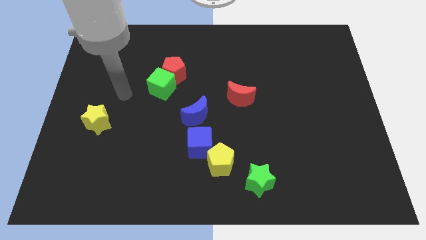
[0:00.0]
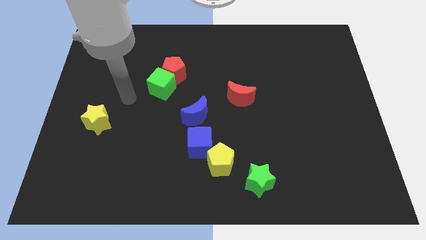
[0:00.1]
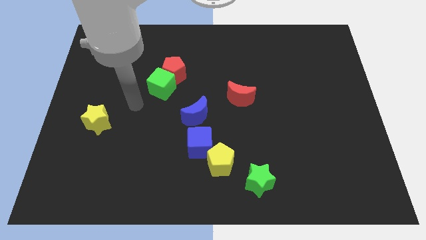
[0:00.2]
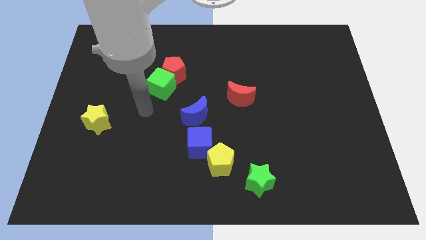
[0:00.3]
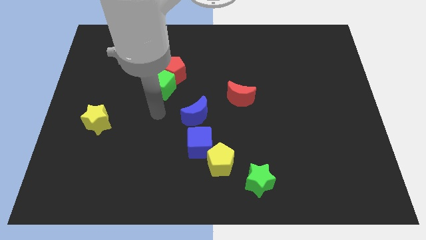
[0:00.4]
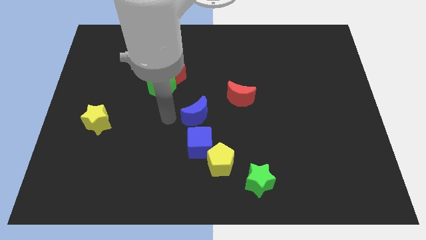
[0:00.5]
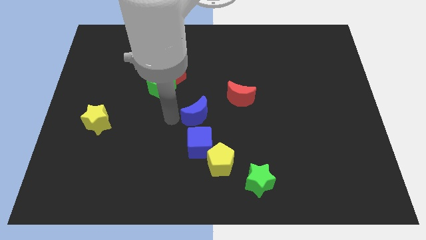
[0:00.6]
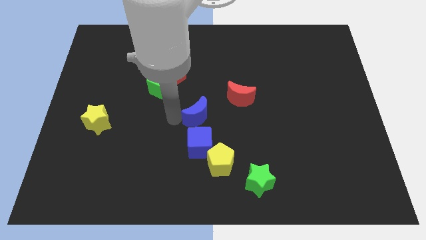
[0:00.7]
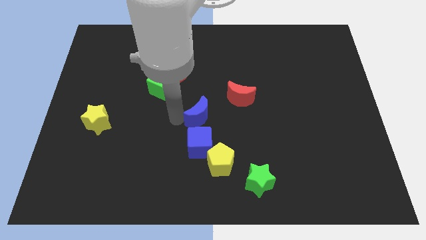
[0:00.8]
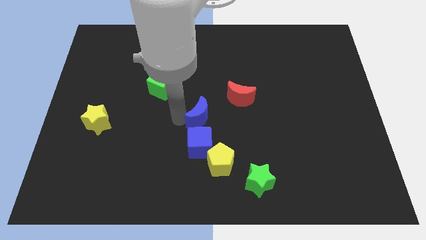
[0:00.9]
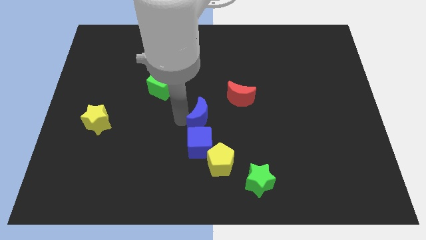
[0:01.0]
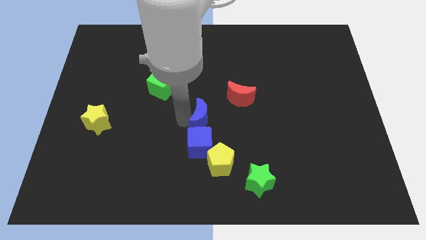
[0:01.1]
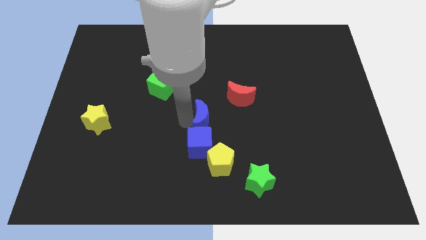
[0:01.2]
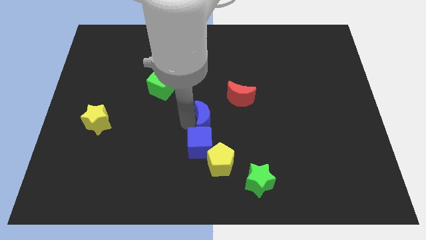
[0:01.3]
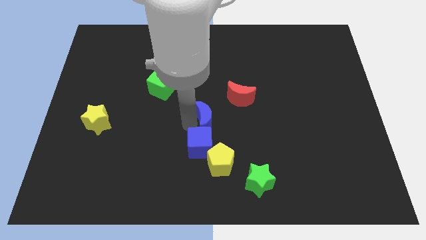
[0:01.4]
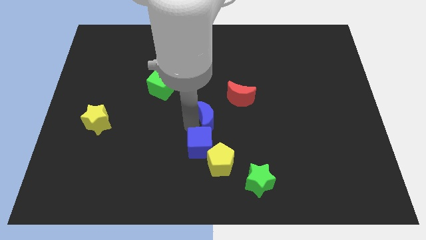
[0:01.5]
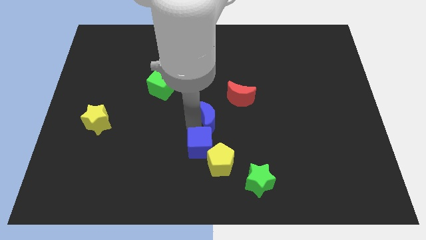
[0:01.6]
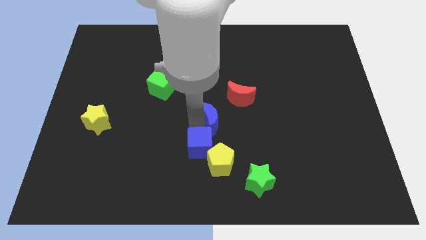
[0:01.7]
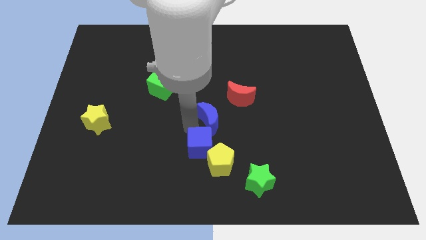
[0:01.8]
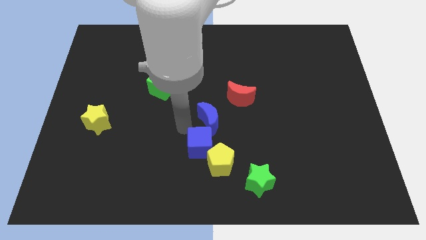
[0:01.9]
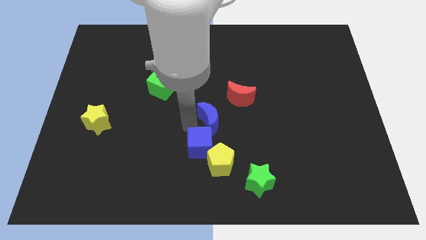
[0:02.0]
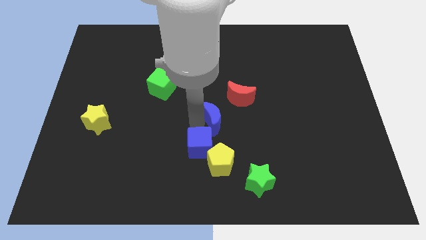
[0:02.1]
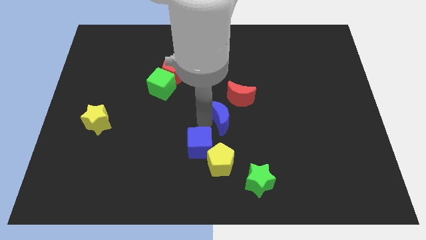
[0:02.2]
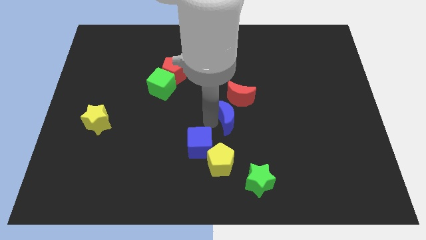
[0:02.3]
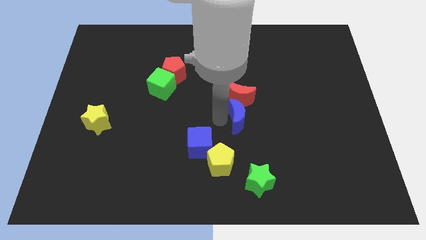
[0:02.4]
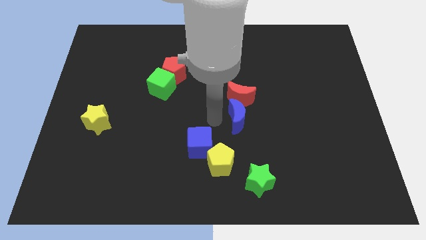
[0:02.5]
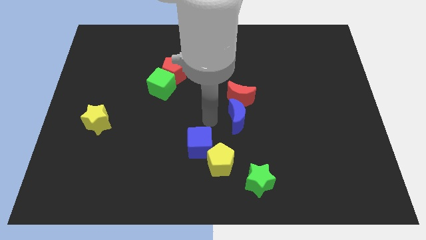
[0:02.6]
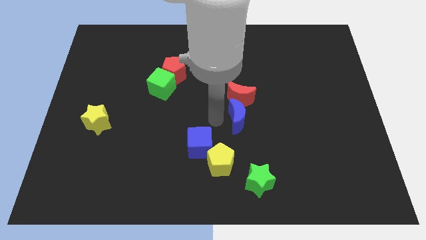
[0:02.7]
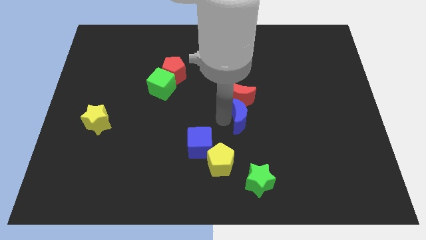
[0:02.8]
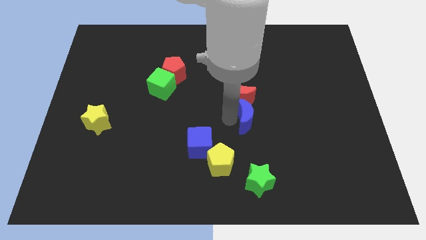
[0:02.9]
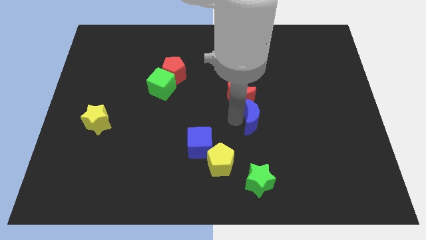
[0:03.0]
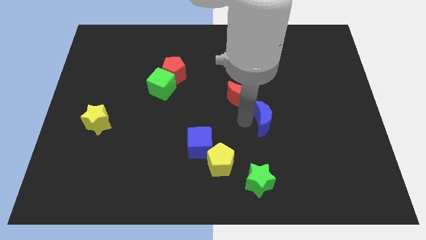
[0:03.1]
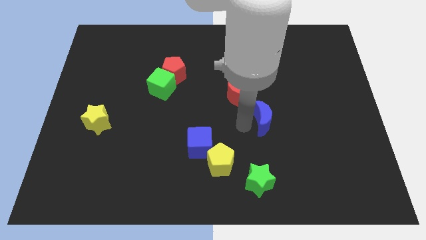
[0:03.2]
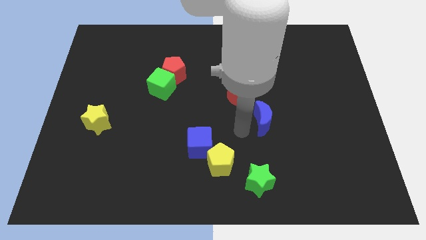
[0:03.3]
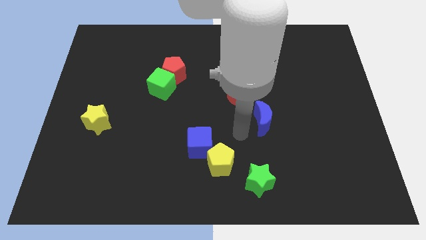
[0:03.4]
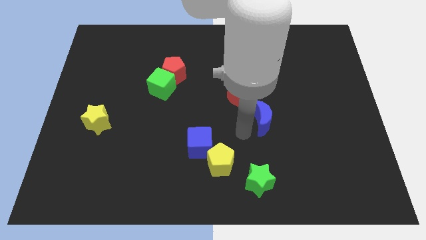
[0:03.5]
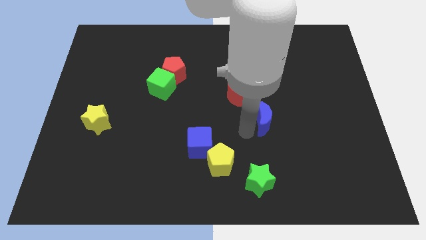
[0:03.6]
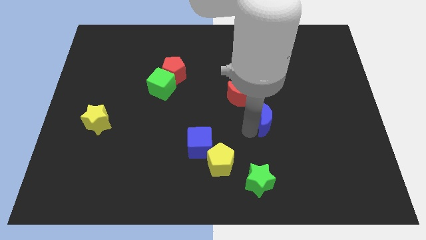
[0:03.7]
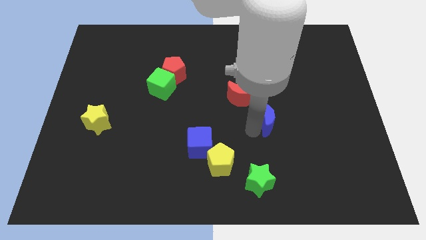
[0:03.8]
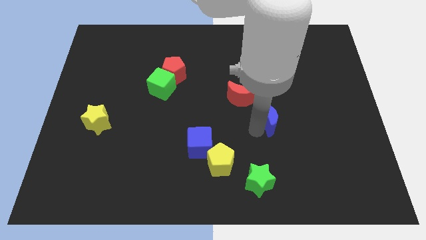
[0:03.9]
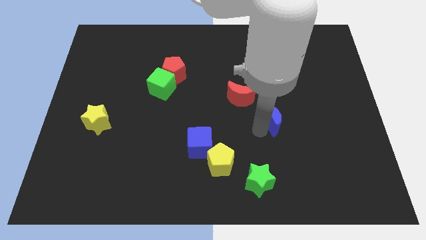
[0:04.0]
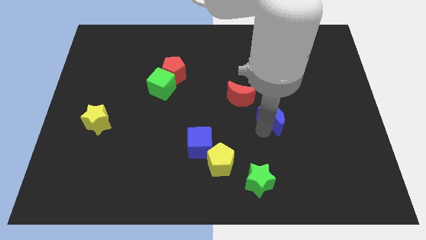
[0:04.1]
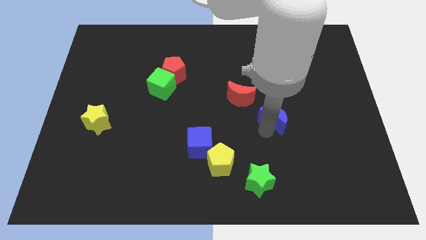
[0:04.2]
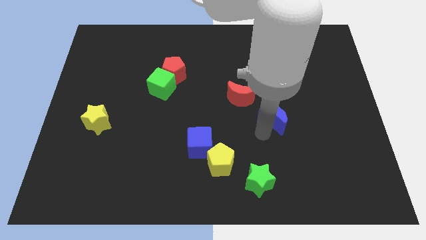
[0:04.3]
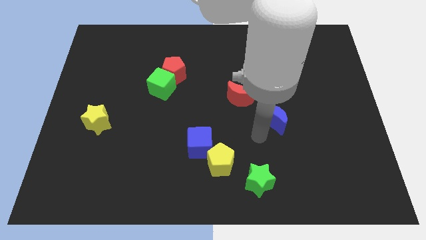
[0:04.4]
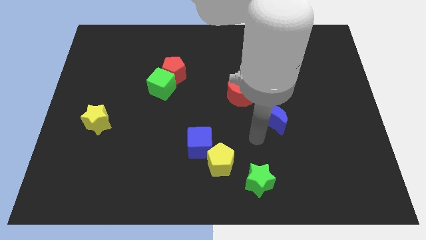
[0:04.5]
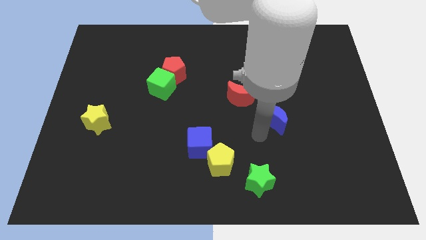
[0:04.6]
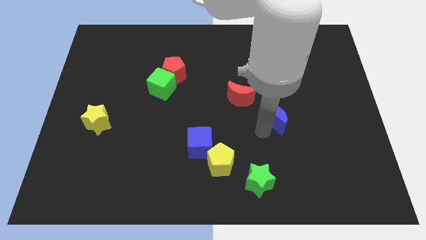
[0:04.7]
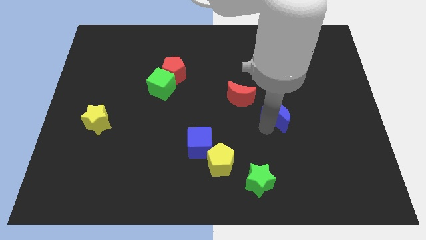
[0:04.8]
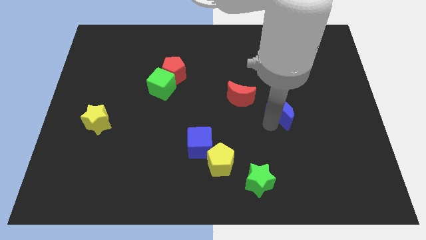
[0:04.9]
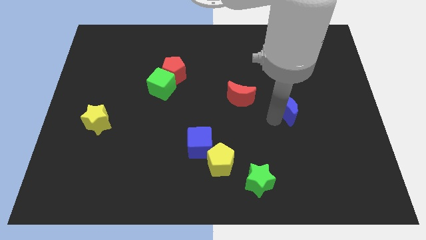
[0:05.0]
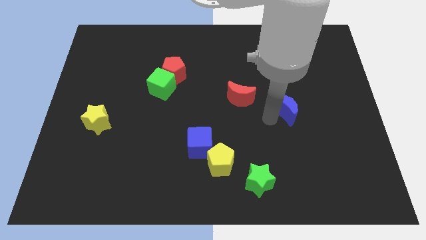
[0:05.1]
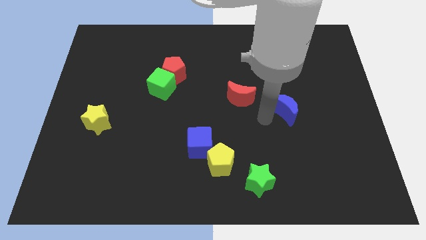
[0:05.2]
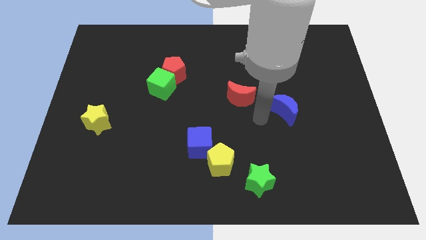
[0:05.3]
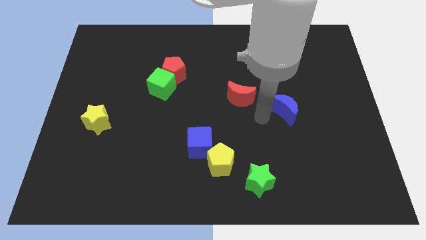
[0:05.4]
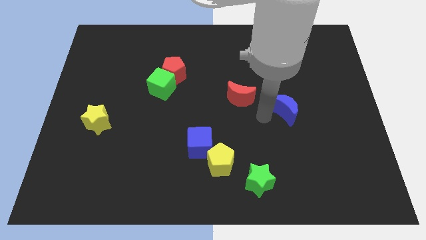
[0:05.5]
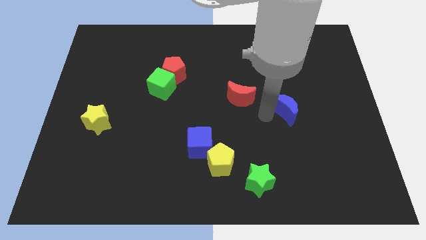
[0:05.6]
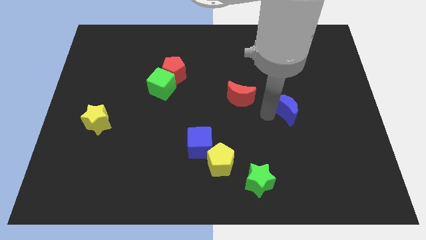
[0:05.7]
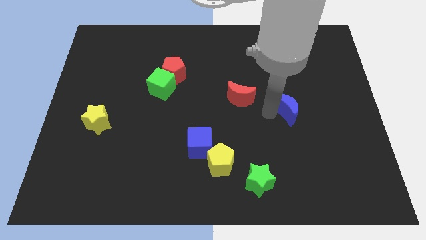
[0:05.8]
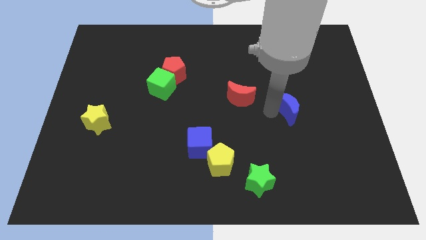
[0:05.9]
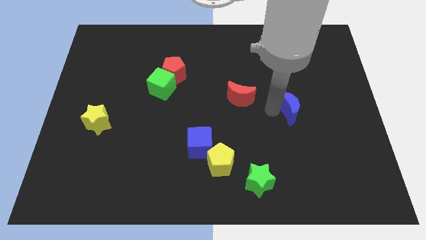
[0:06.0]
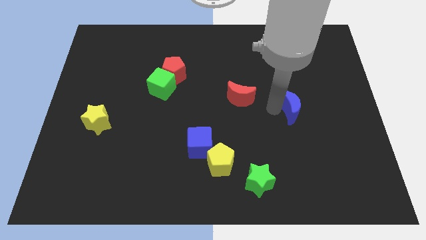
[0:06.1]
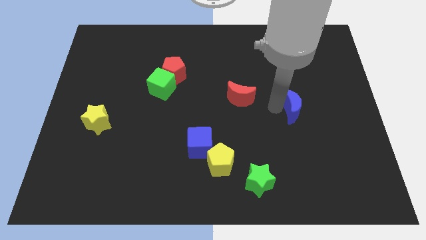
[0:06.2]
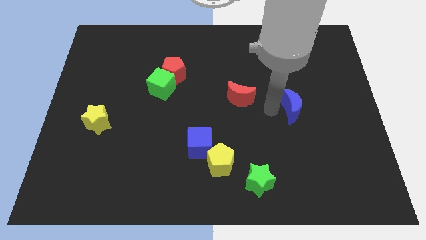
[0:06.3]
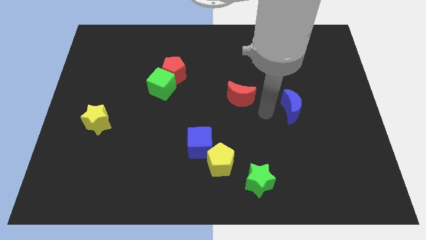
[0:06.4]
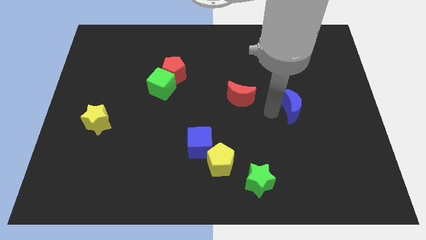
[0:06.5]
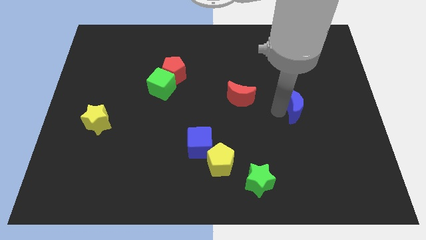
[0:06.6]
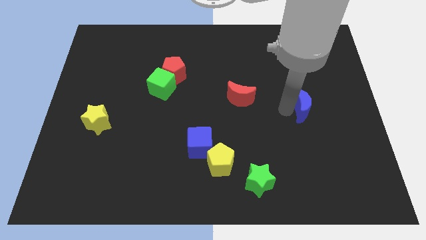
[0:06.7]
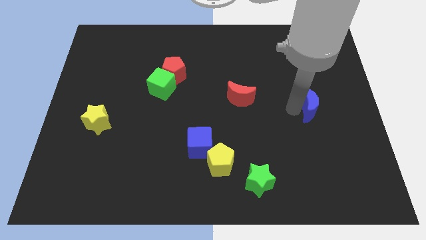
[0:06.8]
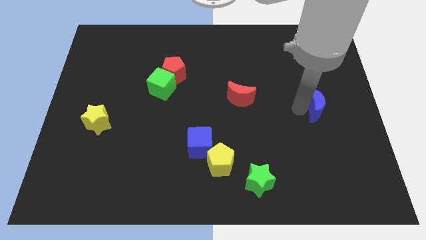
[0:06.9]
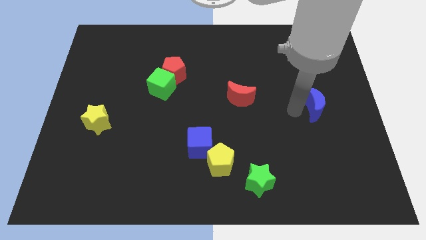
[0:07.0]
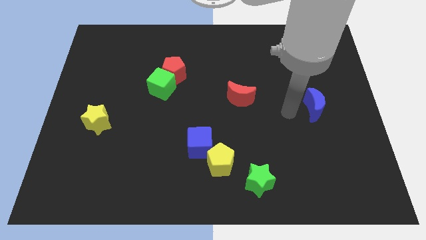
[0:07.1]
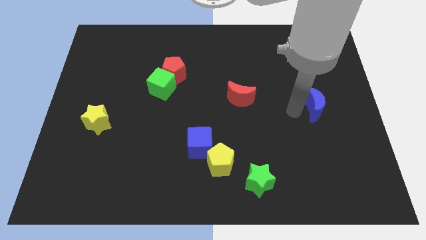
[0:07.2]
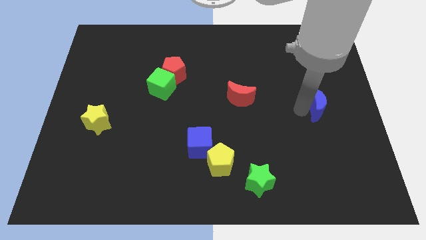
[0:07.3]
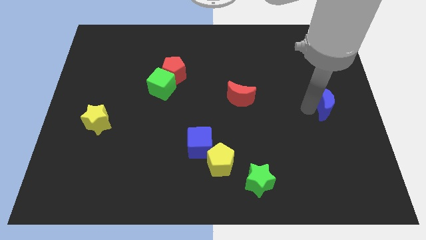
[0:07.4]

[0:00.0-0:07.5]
slide the blue moon to the right side of the board
